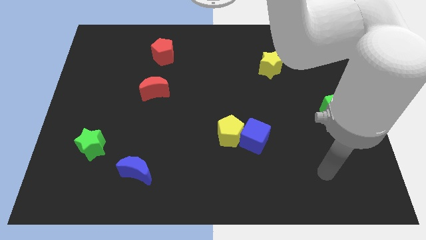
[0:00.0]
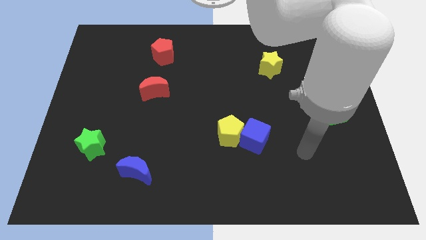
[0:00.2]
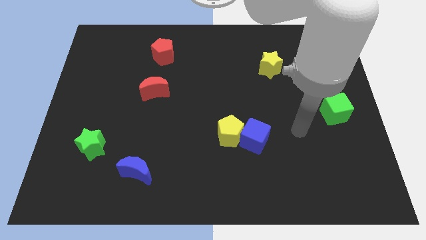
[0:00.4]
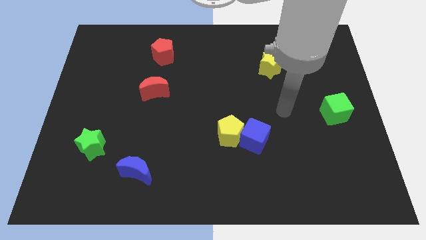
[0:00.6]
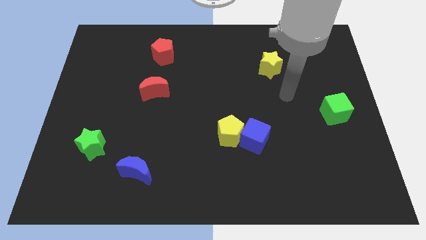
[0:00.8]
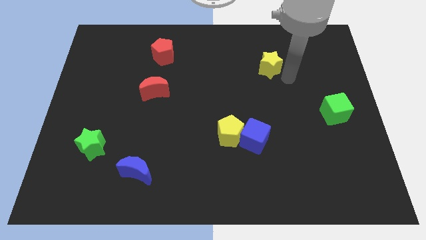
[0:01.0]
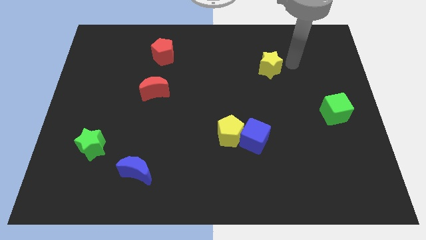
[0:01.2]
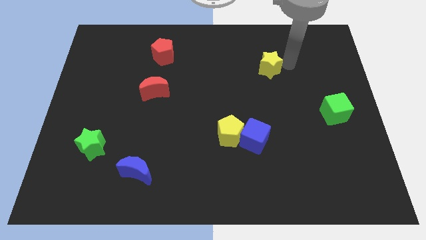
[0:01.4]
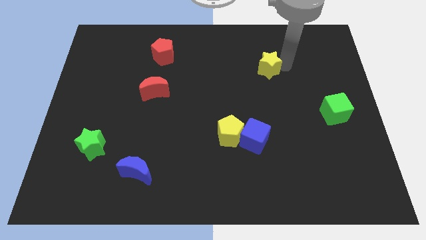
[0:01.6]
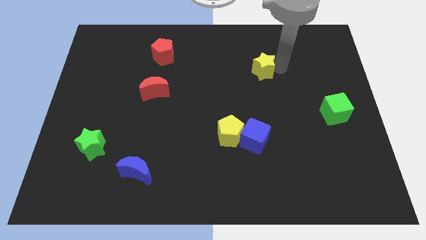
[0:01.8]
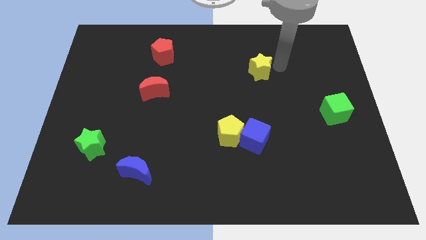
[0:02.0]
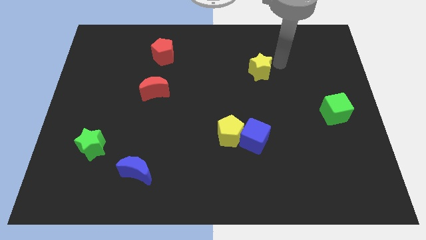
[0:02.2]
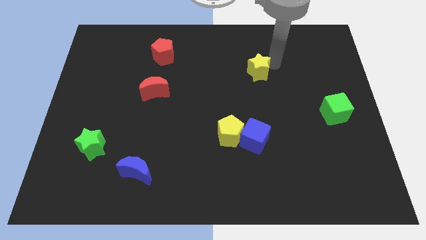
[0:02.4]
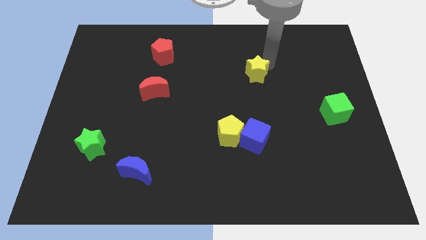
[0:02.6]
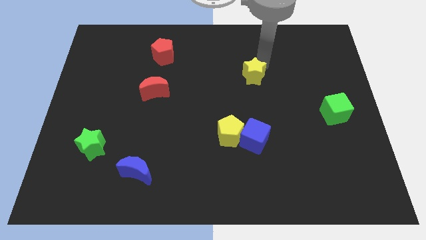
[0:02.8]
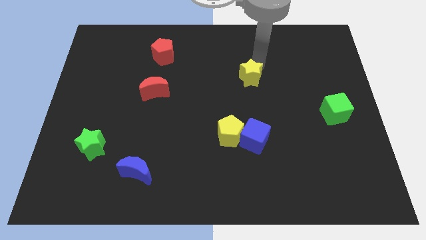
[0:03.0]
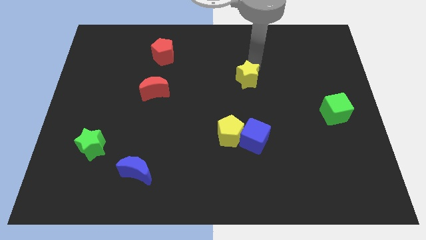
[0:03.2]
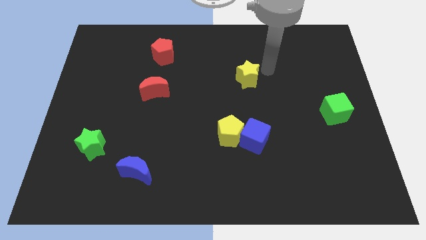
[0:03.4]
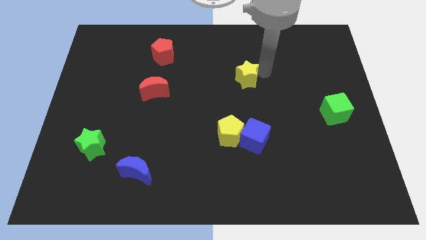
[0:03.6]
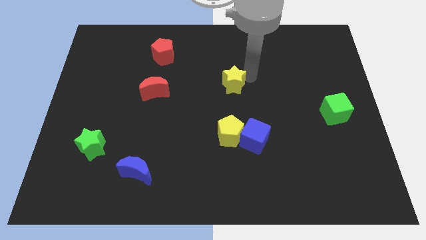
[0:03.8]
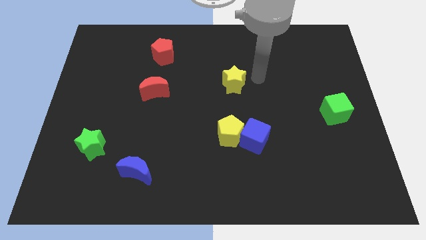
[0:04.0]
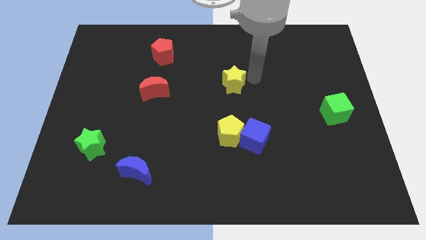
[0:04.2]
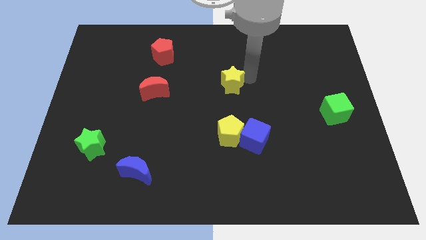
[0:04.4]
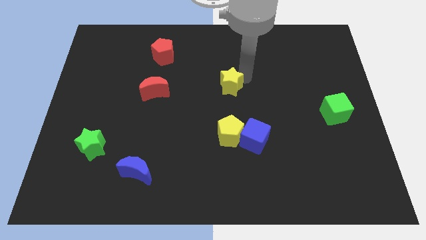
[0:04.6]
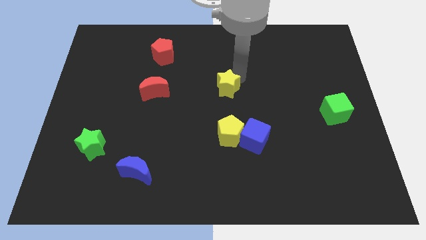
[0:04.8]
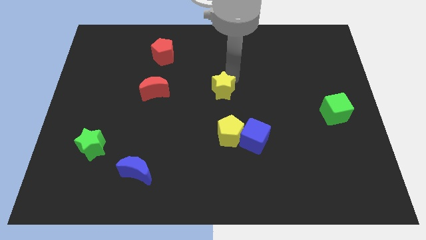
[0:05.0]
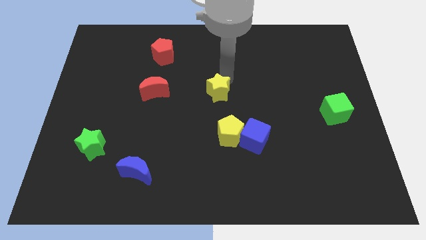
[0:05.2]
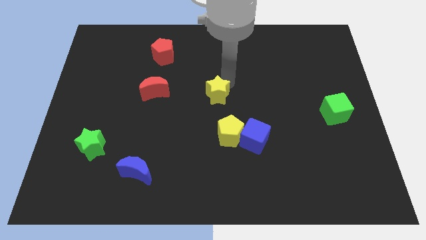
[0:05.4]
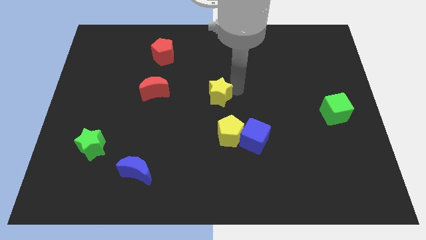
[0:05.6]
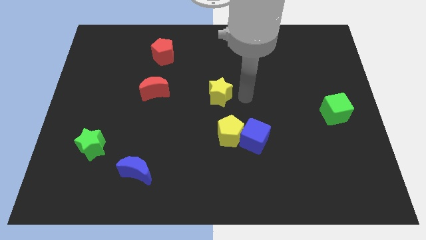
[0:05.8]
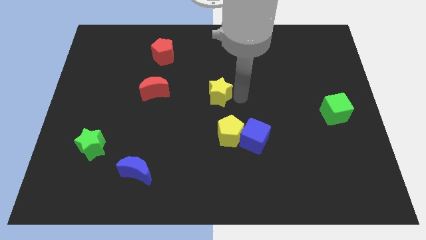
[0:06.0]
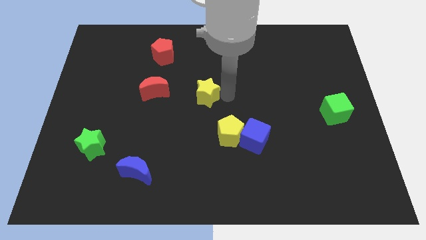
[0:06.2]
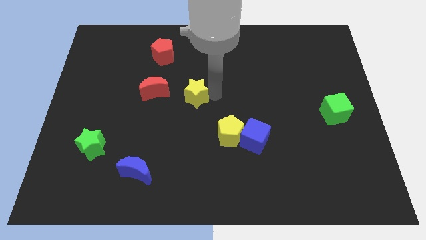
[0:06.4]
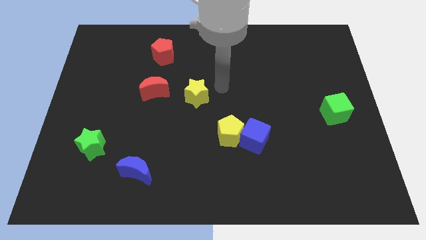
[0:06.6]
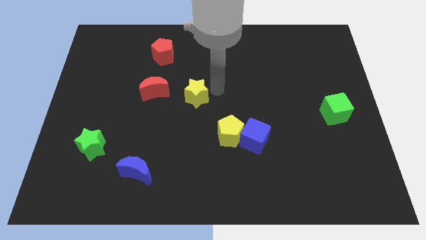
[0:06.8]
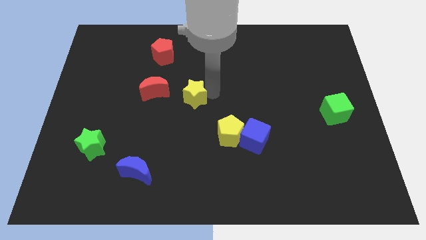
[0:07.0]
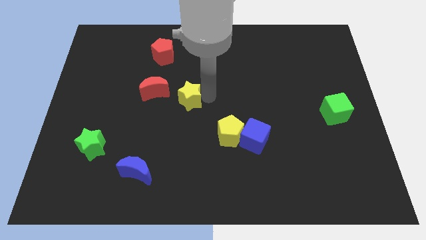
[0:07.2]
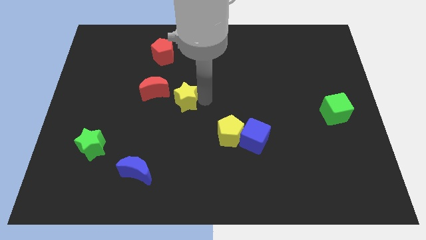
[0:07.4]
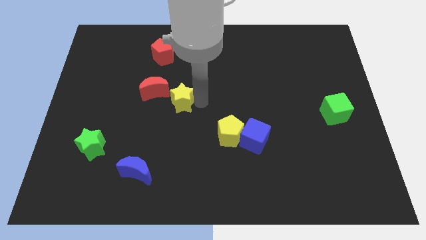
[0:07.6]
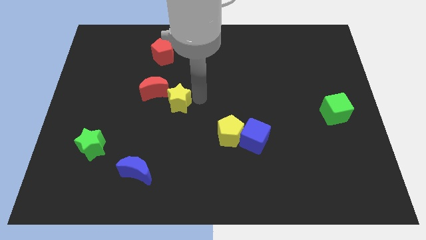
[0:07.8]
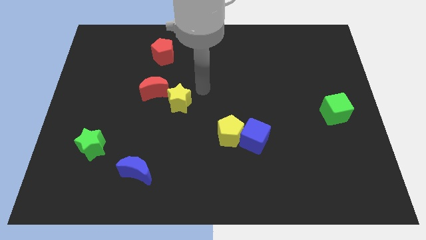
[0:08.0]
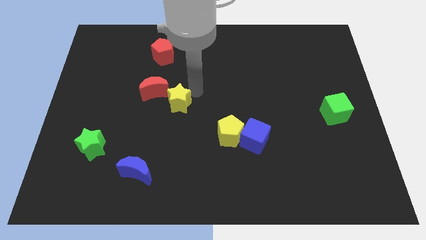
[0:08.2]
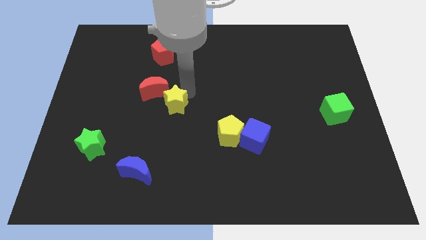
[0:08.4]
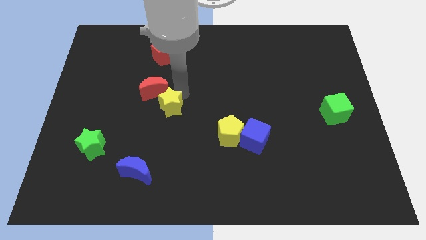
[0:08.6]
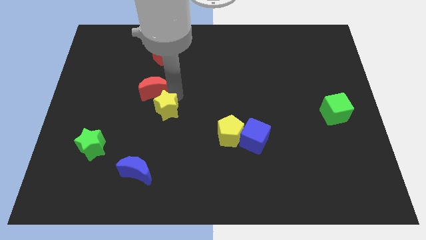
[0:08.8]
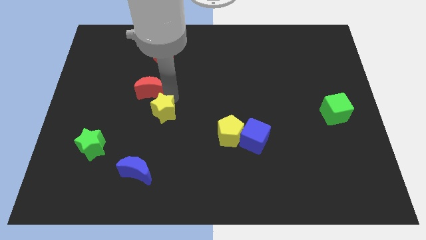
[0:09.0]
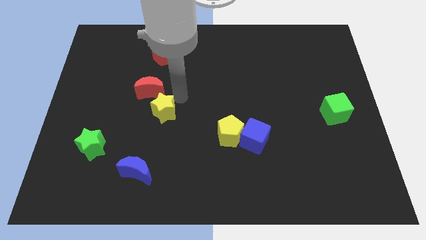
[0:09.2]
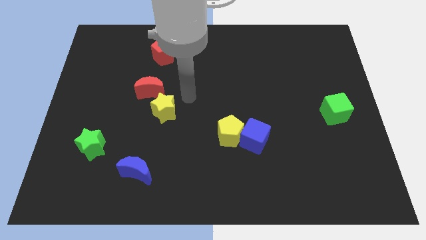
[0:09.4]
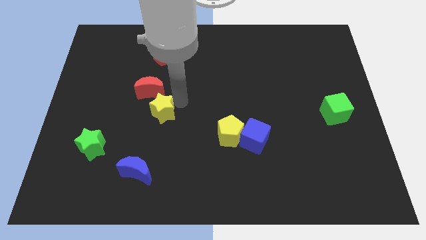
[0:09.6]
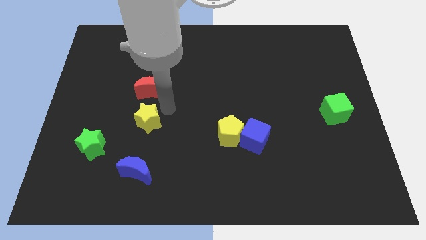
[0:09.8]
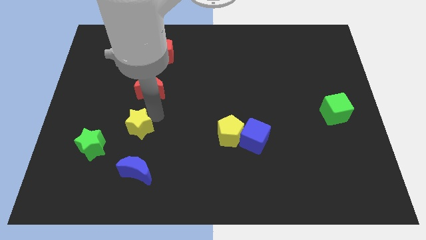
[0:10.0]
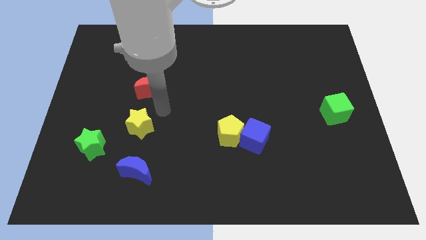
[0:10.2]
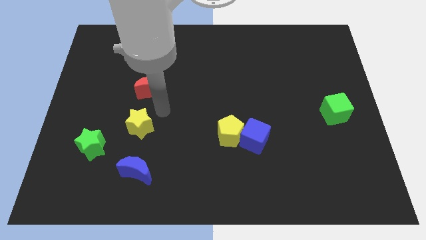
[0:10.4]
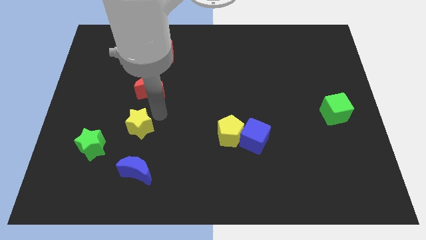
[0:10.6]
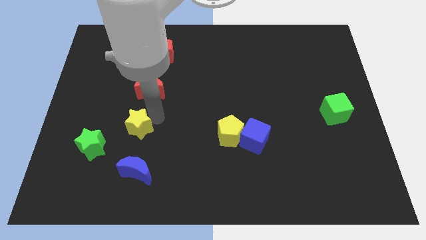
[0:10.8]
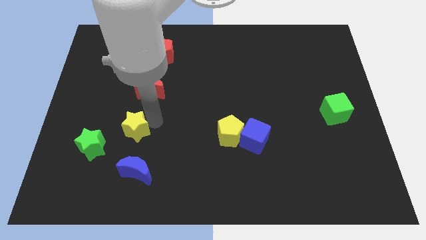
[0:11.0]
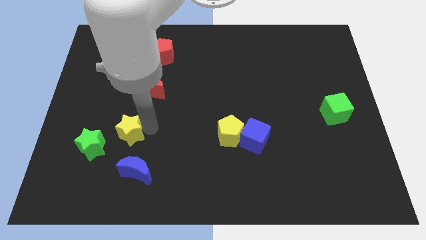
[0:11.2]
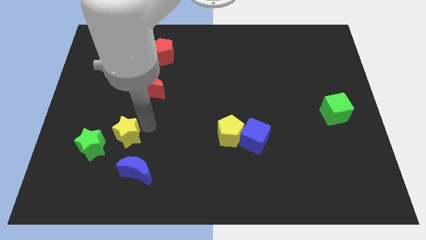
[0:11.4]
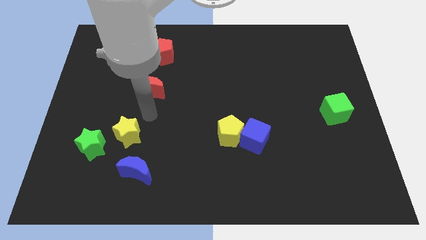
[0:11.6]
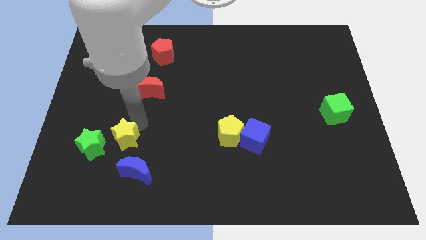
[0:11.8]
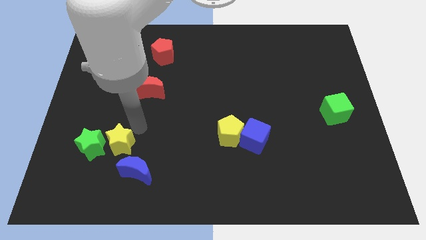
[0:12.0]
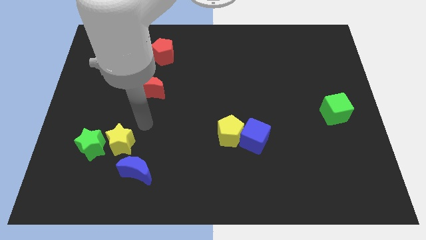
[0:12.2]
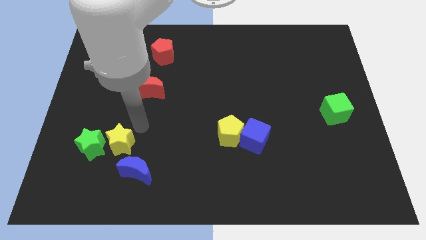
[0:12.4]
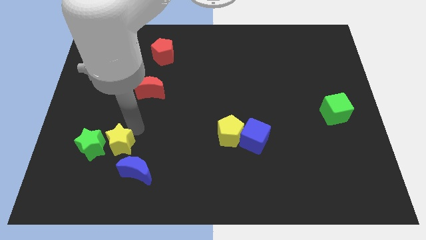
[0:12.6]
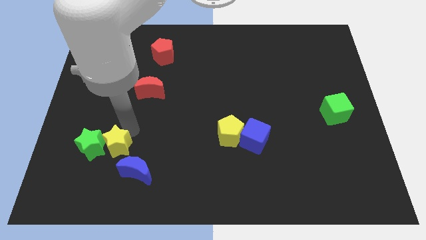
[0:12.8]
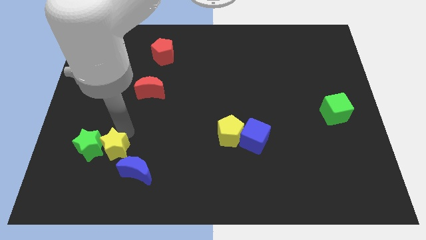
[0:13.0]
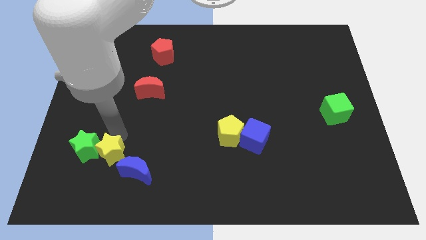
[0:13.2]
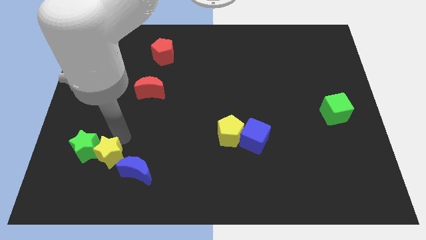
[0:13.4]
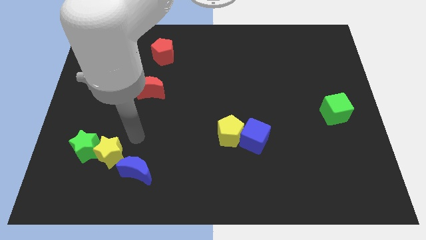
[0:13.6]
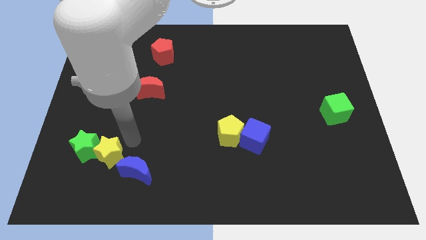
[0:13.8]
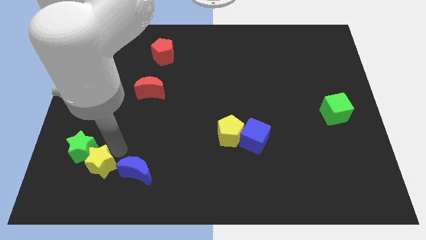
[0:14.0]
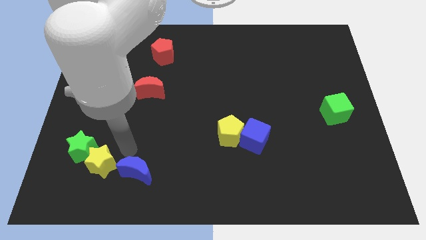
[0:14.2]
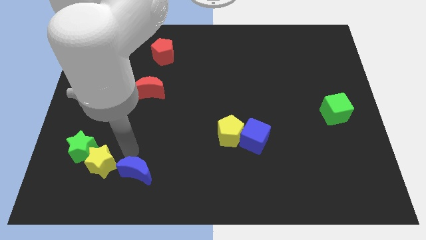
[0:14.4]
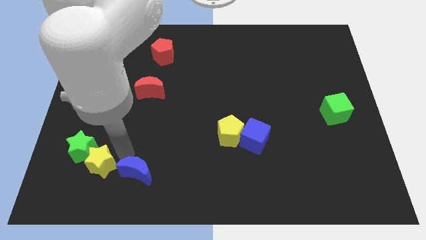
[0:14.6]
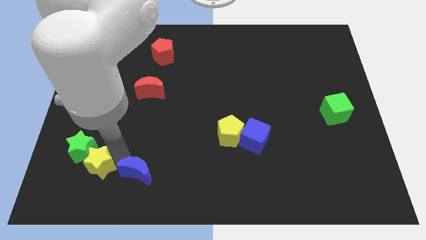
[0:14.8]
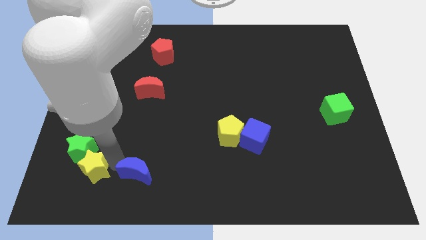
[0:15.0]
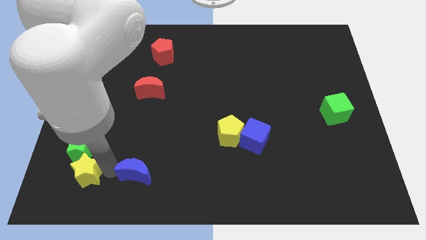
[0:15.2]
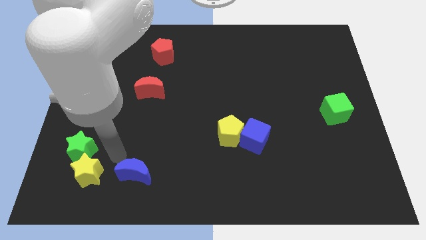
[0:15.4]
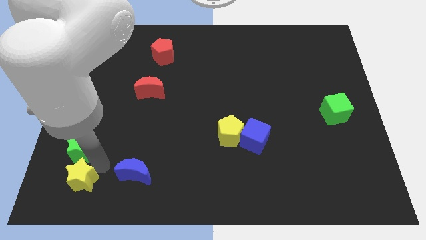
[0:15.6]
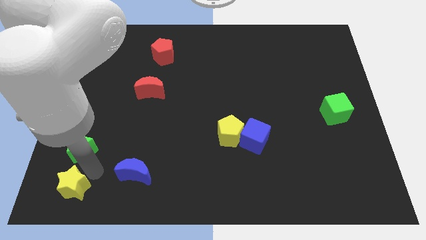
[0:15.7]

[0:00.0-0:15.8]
put the yellow star to the bottom left corner
